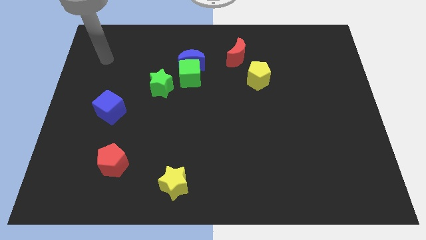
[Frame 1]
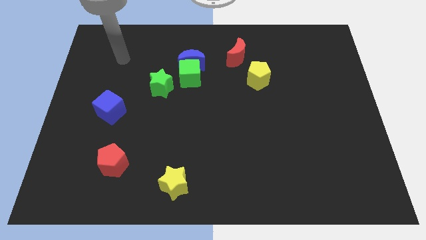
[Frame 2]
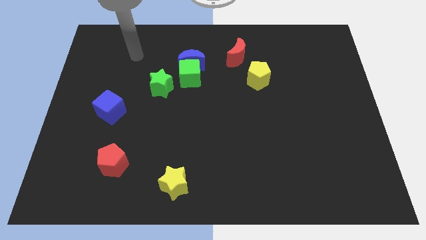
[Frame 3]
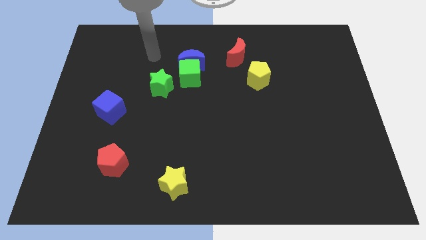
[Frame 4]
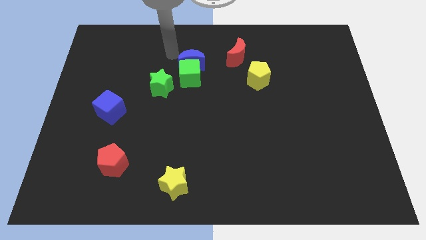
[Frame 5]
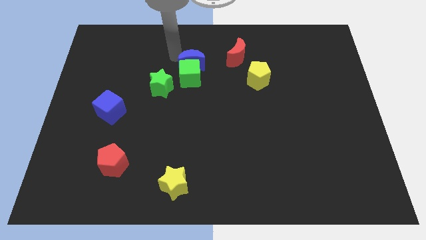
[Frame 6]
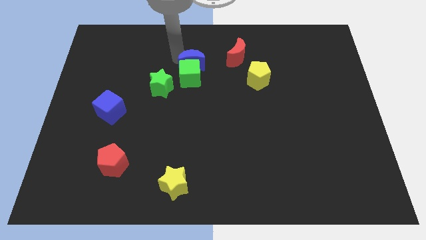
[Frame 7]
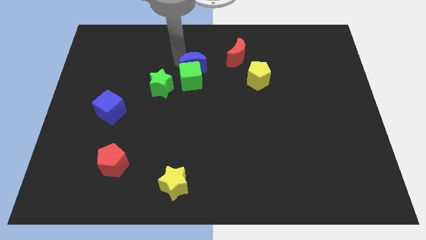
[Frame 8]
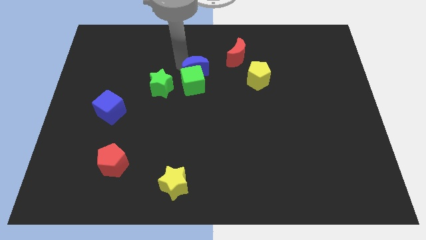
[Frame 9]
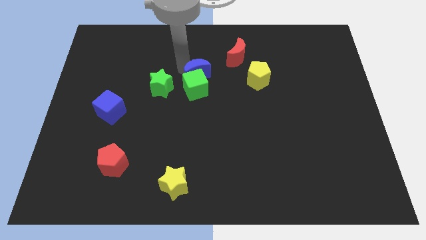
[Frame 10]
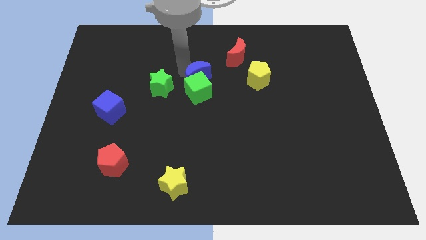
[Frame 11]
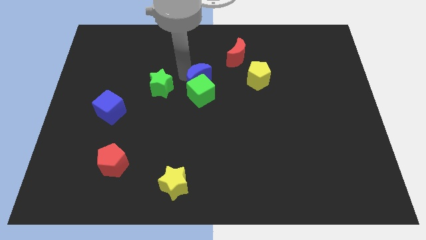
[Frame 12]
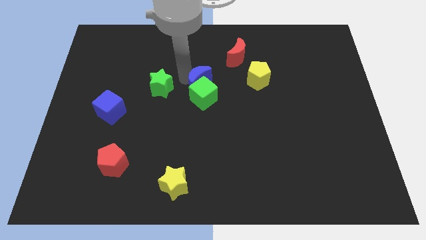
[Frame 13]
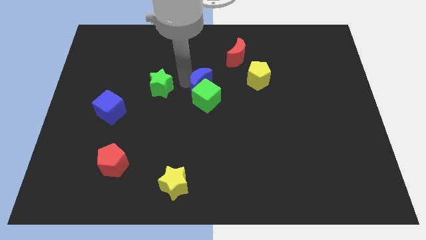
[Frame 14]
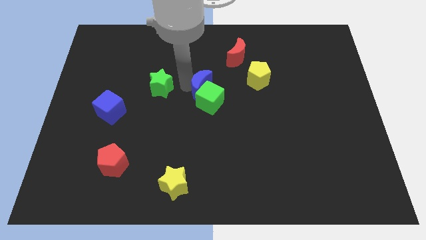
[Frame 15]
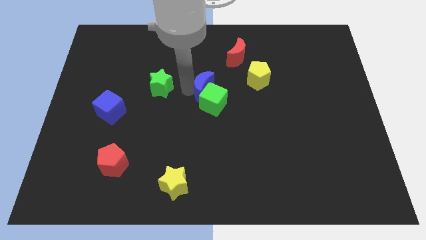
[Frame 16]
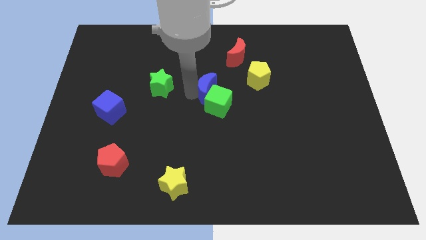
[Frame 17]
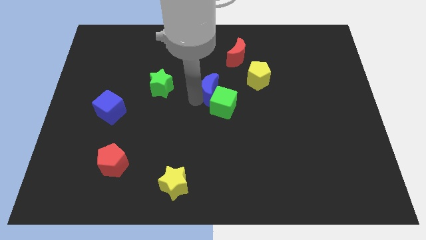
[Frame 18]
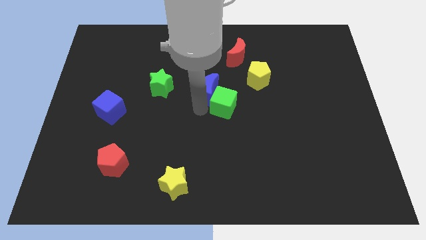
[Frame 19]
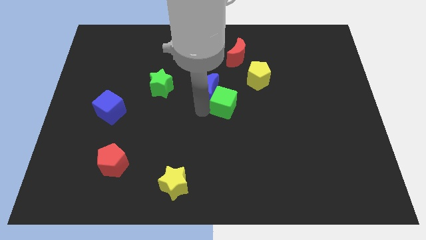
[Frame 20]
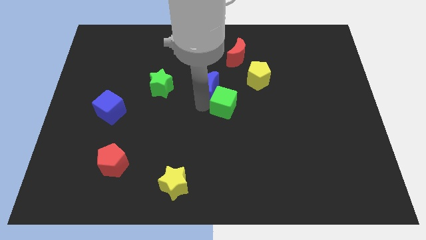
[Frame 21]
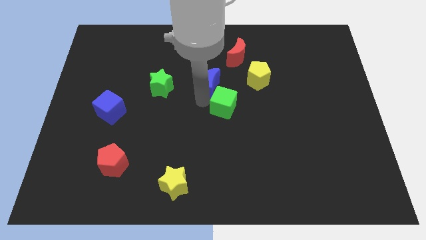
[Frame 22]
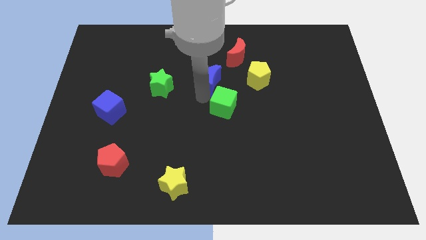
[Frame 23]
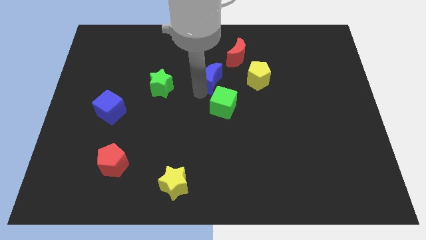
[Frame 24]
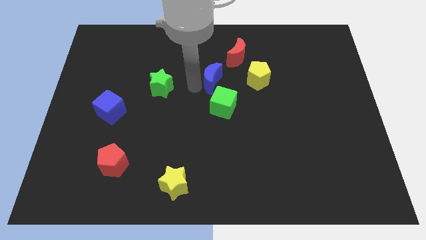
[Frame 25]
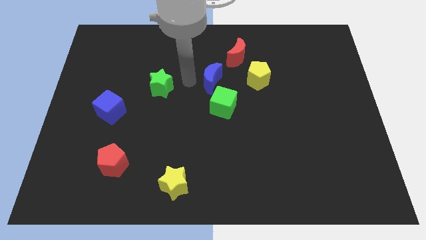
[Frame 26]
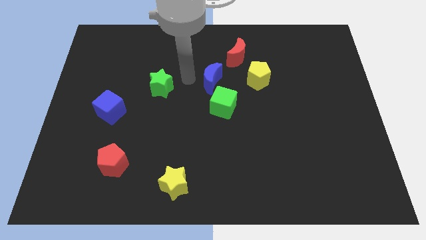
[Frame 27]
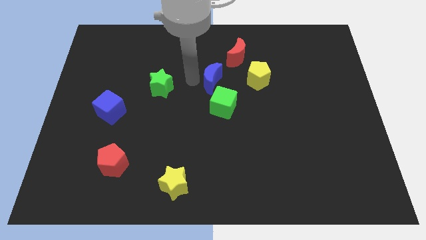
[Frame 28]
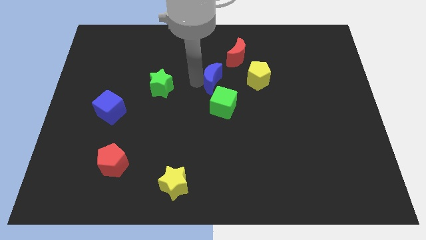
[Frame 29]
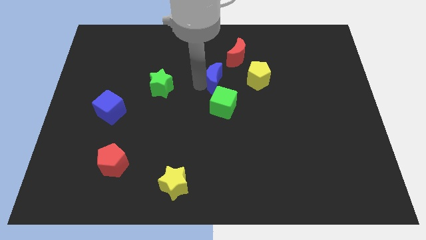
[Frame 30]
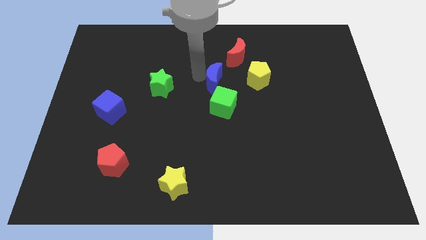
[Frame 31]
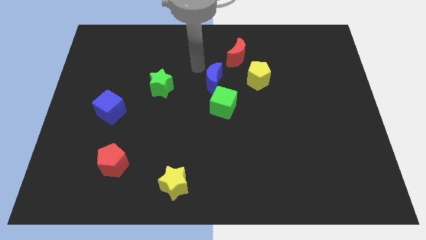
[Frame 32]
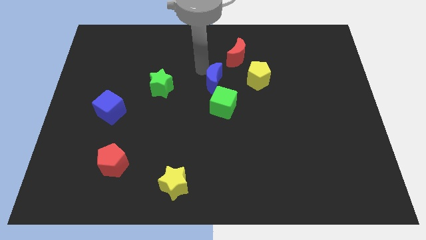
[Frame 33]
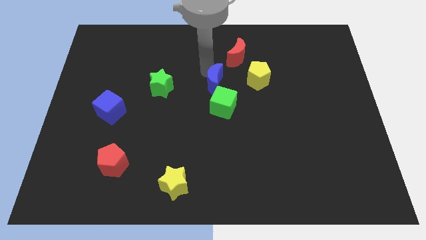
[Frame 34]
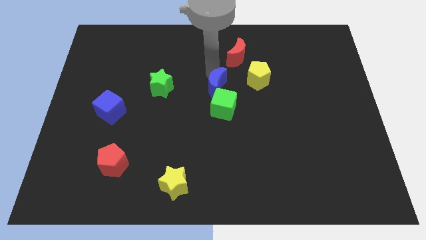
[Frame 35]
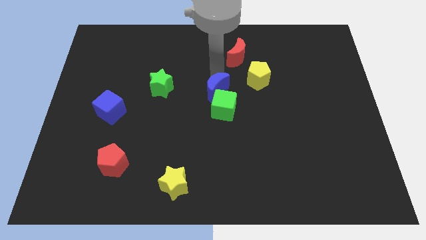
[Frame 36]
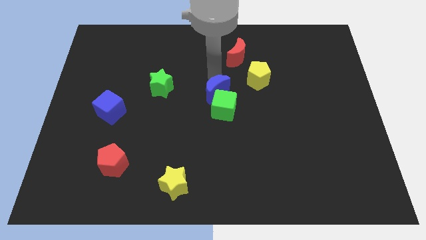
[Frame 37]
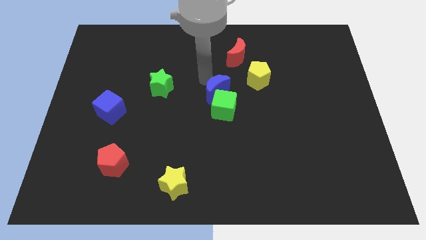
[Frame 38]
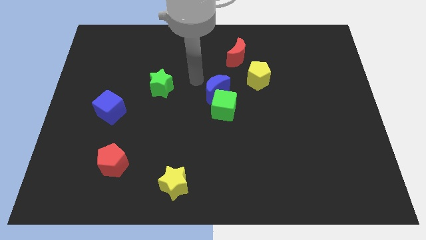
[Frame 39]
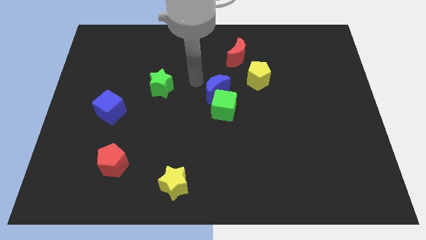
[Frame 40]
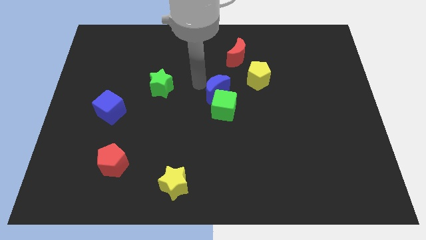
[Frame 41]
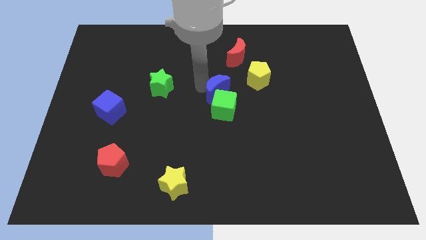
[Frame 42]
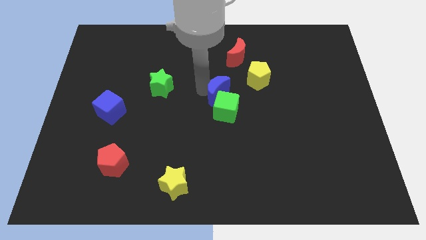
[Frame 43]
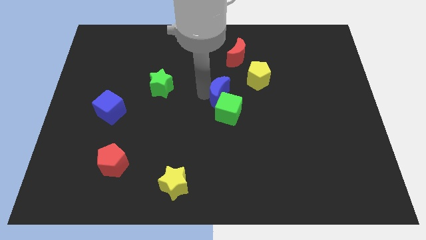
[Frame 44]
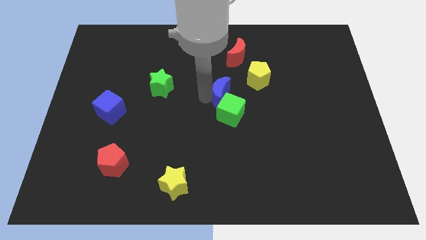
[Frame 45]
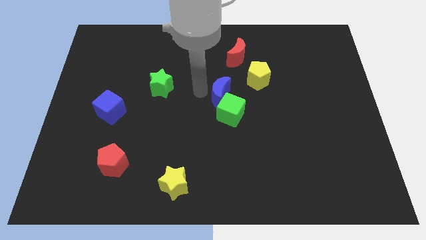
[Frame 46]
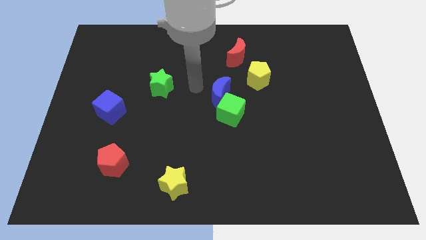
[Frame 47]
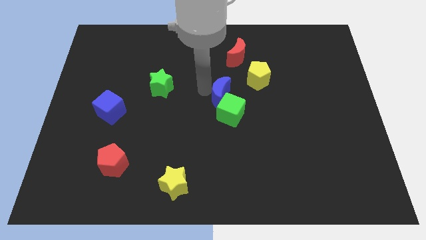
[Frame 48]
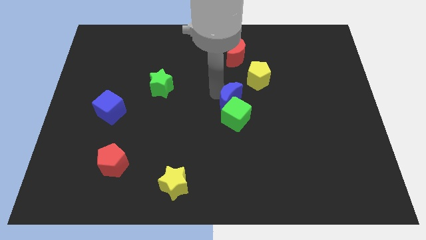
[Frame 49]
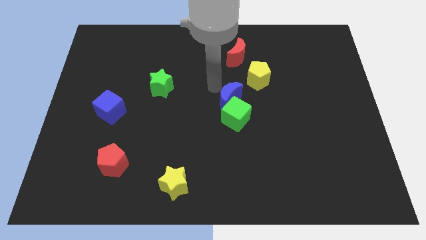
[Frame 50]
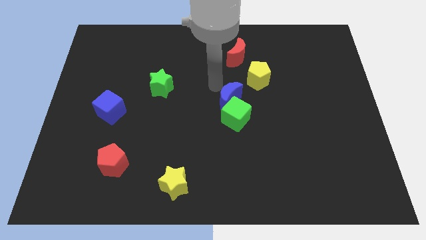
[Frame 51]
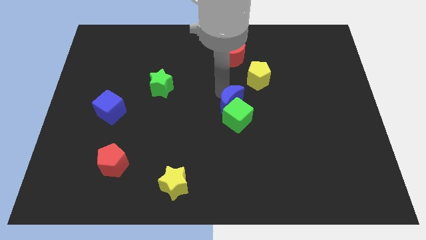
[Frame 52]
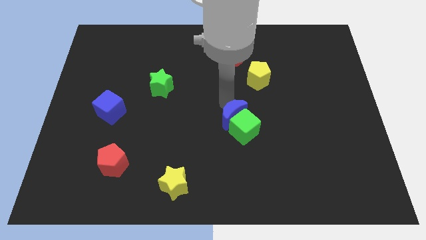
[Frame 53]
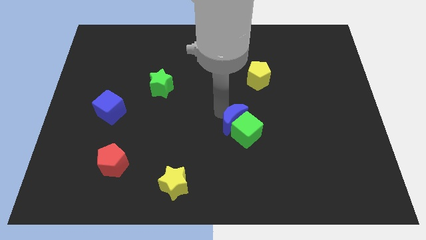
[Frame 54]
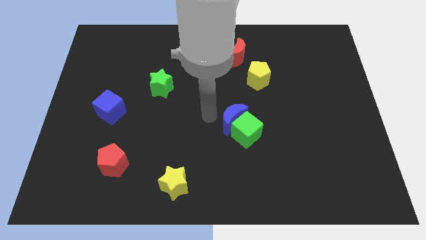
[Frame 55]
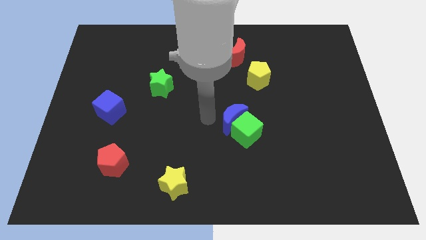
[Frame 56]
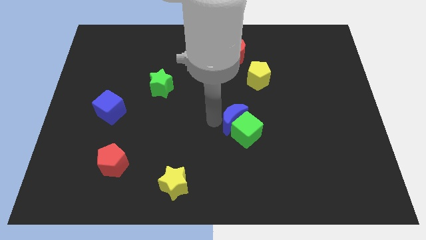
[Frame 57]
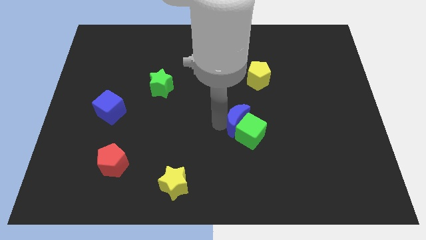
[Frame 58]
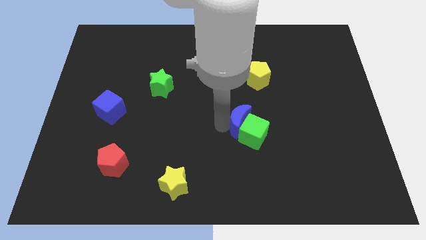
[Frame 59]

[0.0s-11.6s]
push the blue moon downwards and right

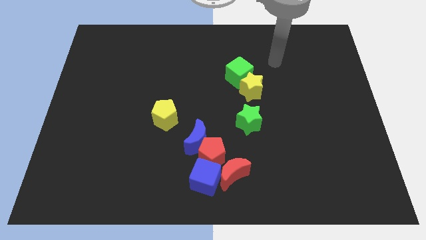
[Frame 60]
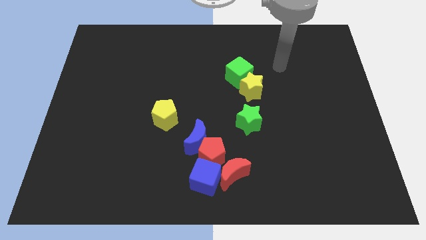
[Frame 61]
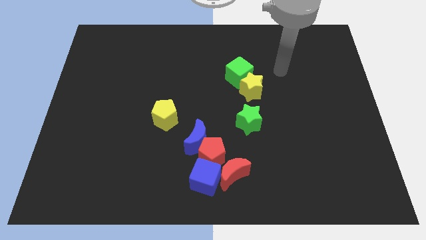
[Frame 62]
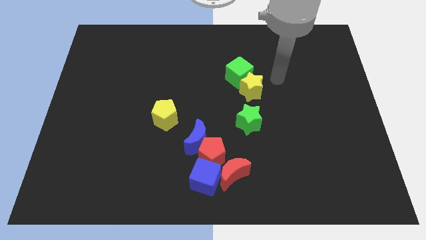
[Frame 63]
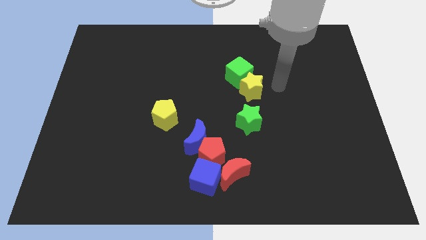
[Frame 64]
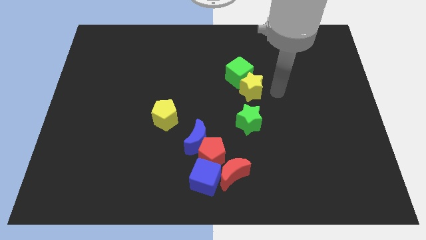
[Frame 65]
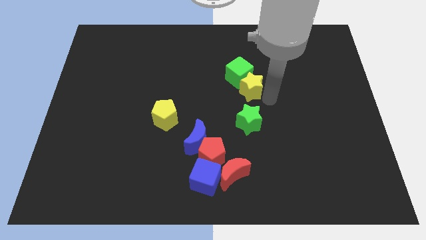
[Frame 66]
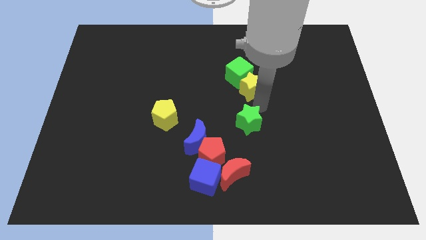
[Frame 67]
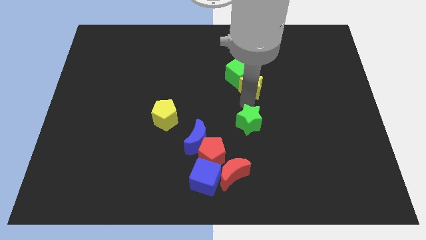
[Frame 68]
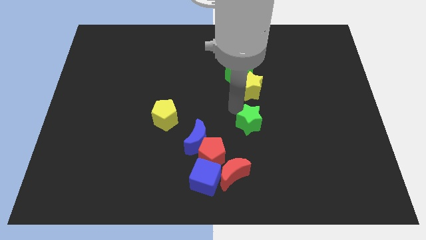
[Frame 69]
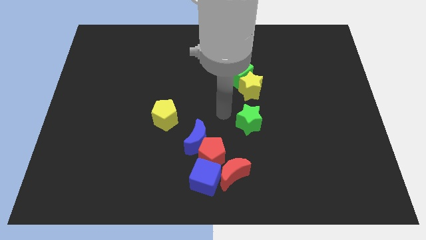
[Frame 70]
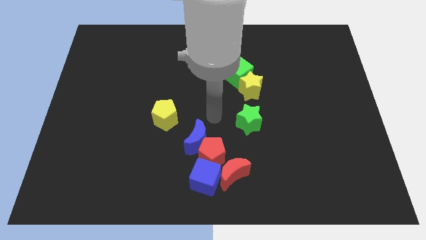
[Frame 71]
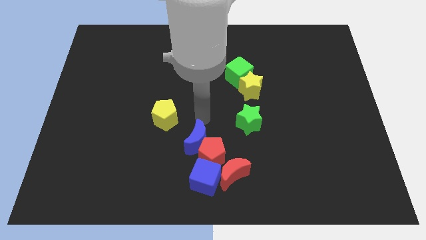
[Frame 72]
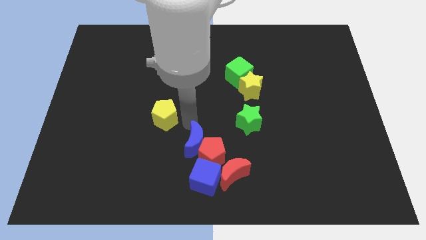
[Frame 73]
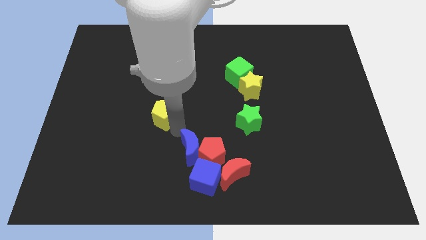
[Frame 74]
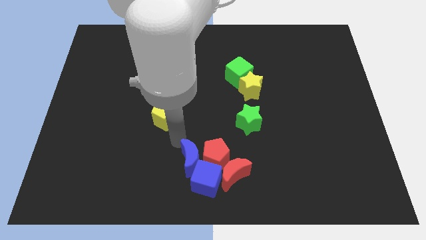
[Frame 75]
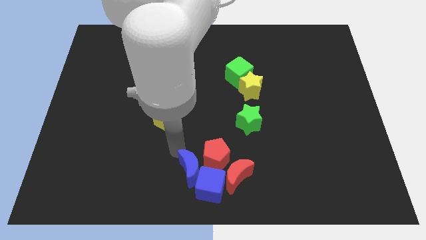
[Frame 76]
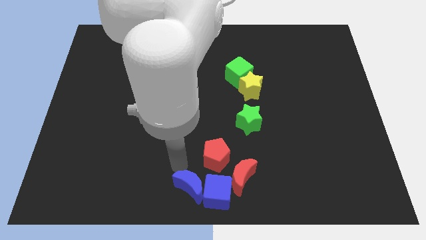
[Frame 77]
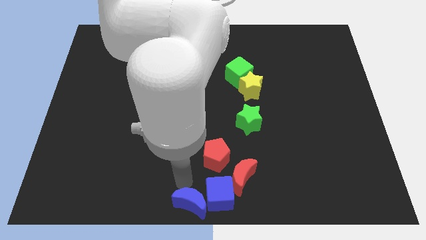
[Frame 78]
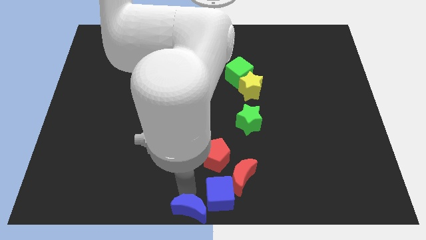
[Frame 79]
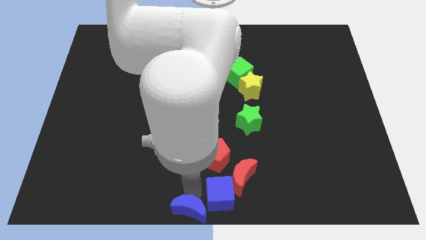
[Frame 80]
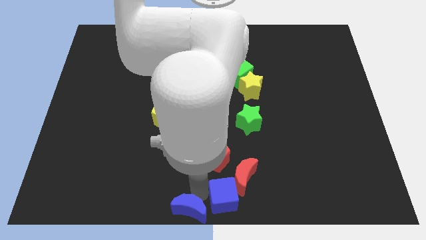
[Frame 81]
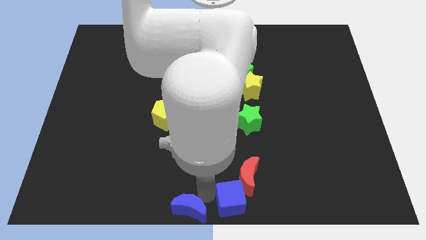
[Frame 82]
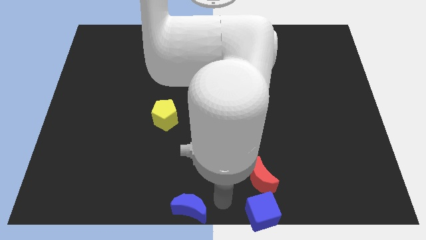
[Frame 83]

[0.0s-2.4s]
push the blue cube right somewhat
